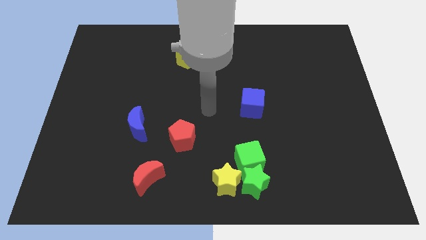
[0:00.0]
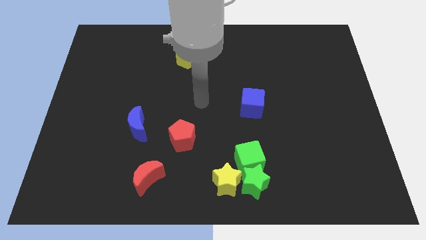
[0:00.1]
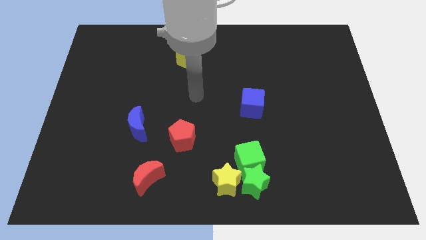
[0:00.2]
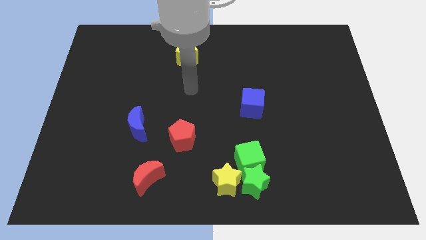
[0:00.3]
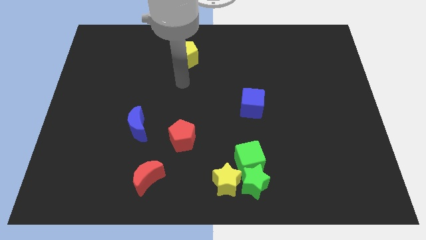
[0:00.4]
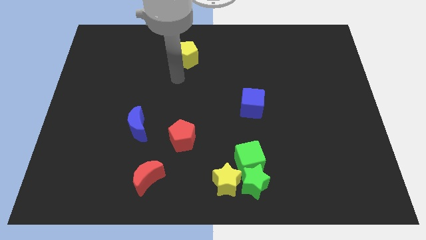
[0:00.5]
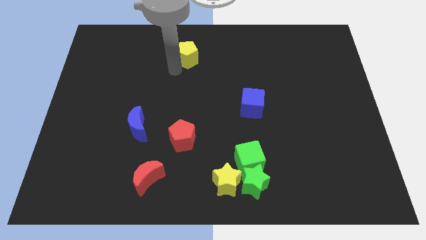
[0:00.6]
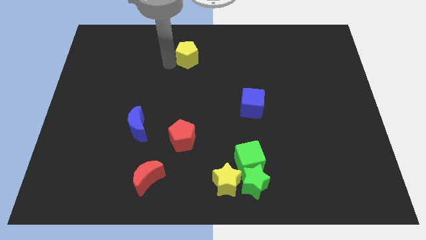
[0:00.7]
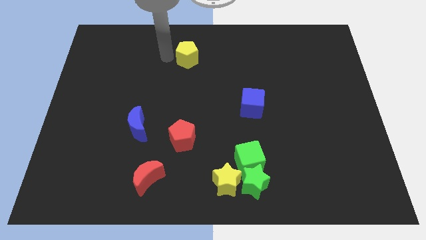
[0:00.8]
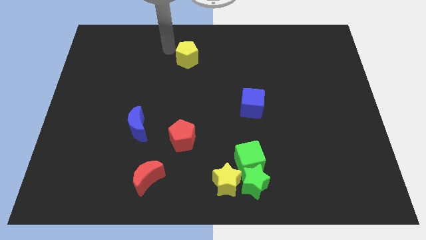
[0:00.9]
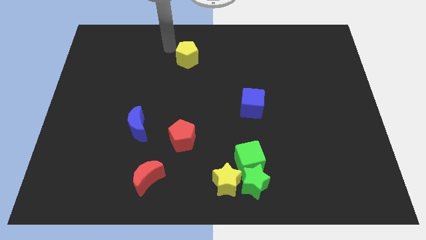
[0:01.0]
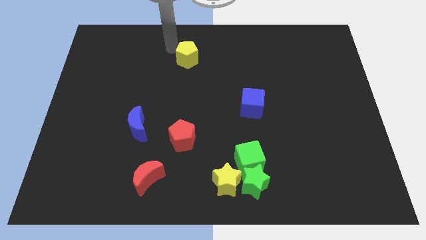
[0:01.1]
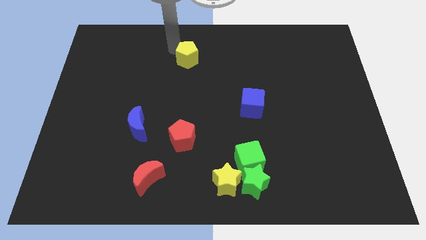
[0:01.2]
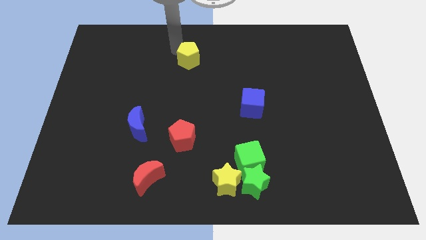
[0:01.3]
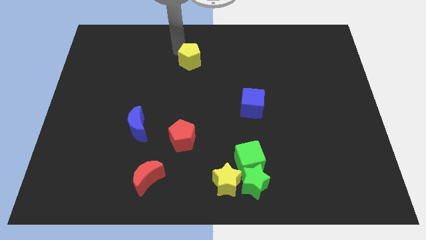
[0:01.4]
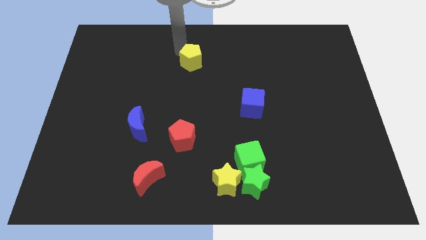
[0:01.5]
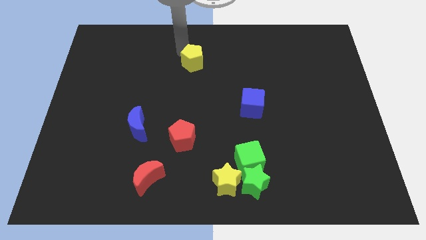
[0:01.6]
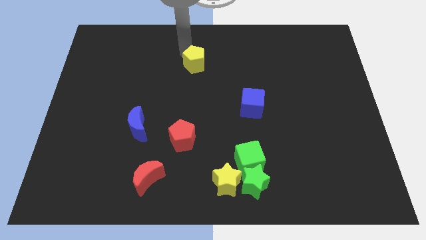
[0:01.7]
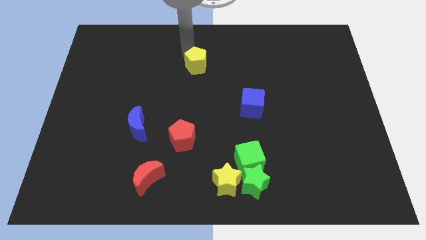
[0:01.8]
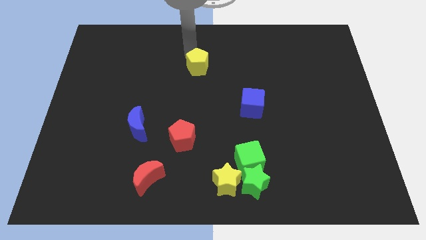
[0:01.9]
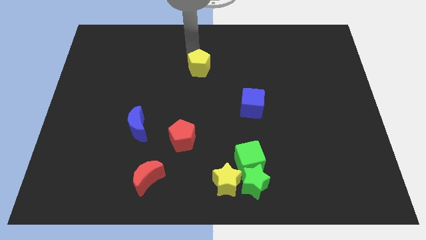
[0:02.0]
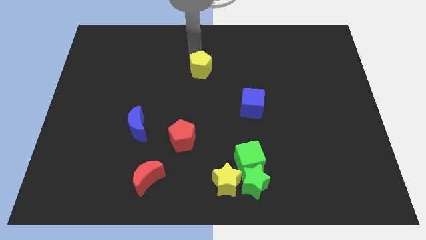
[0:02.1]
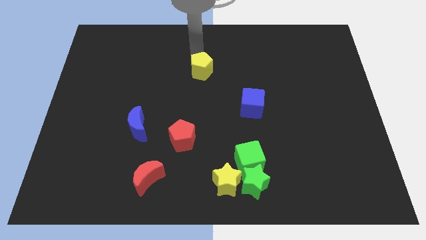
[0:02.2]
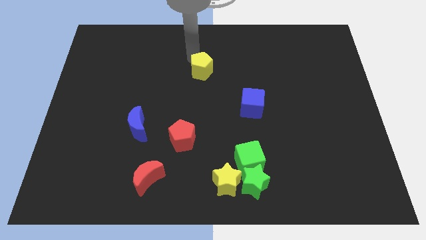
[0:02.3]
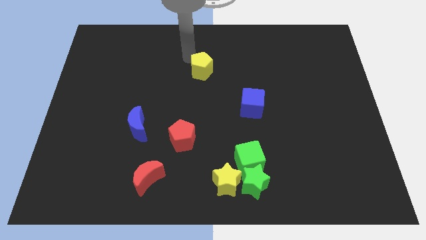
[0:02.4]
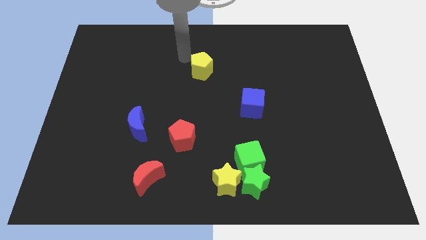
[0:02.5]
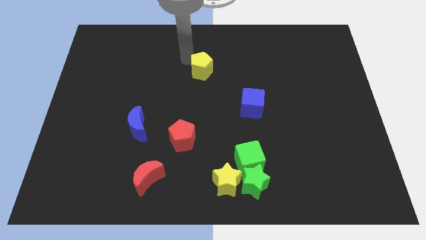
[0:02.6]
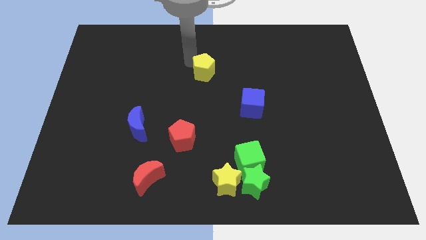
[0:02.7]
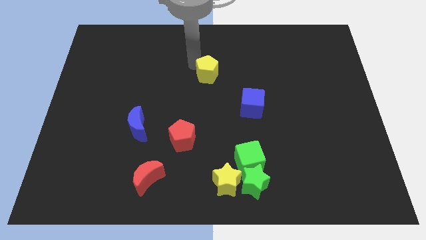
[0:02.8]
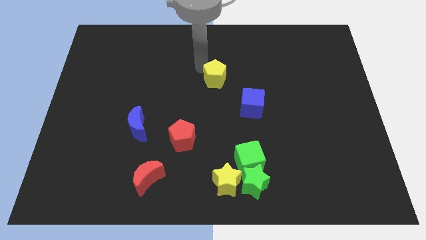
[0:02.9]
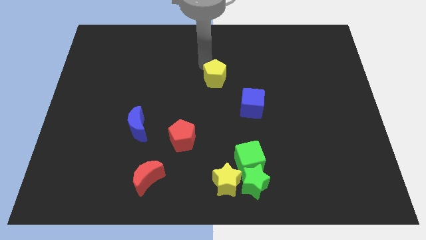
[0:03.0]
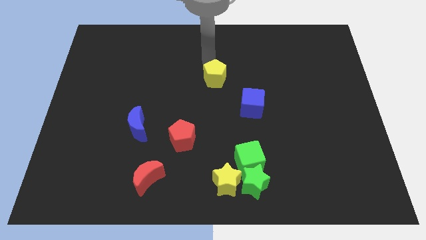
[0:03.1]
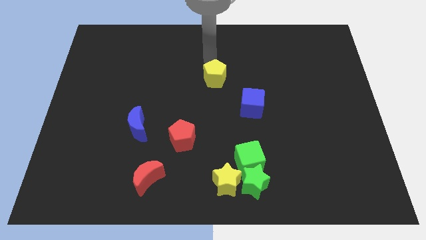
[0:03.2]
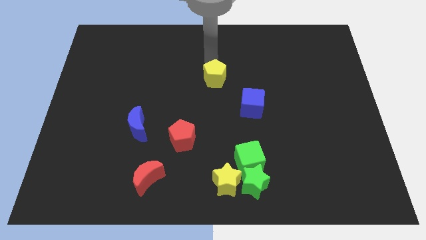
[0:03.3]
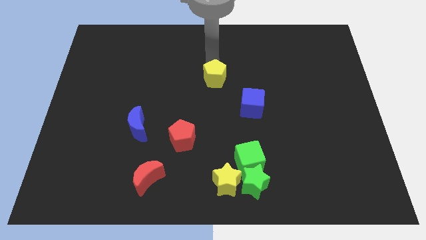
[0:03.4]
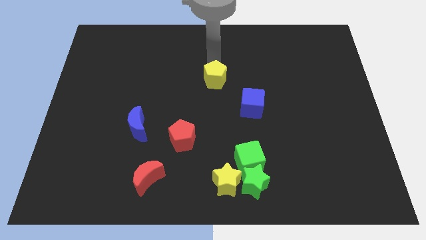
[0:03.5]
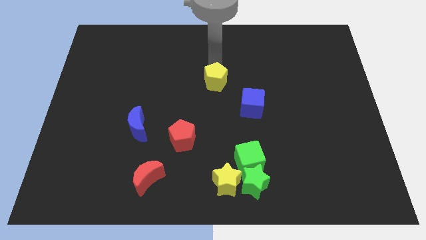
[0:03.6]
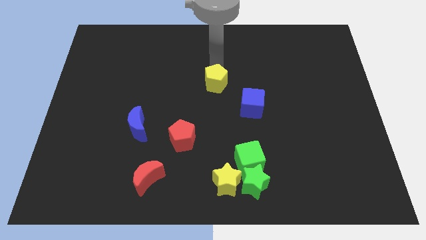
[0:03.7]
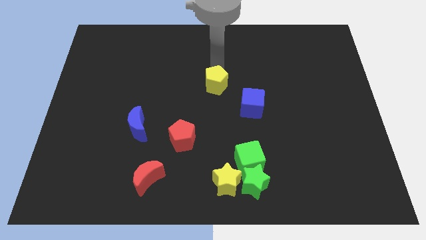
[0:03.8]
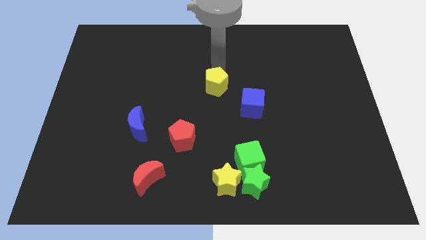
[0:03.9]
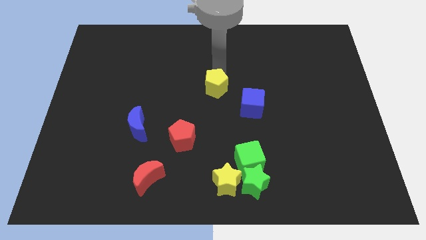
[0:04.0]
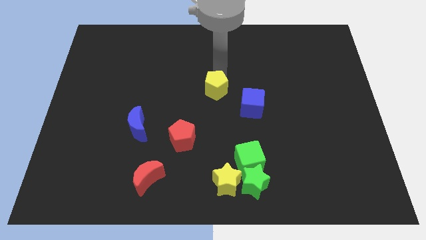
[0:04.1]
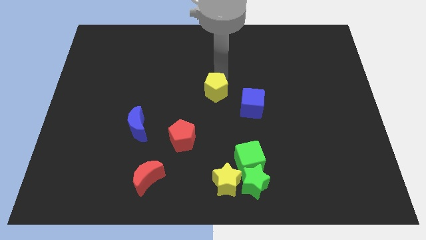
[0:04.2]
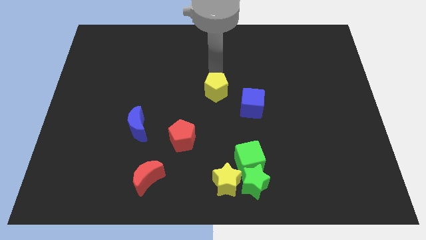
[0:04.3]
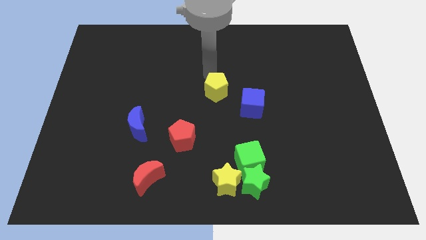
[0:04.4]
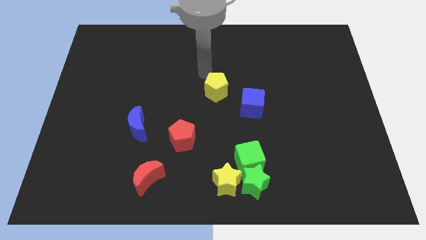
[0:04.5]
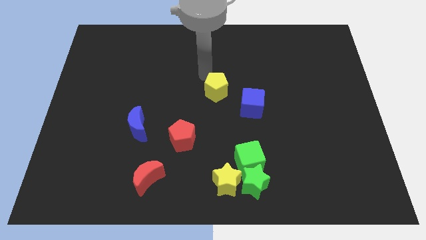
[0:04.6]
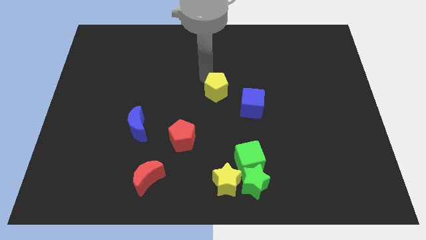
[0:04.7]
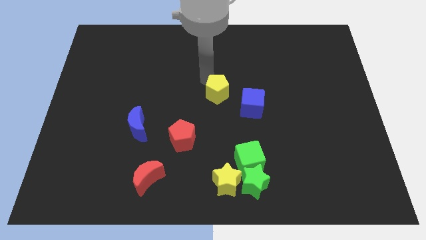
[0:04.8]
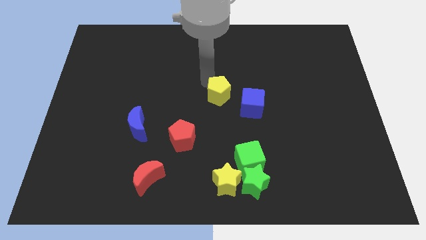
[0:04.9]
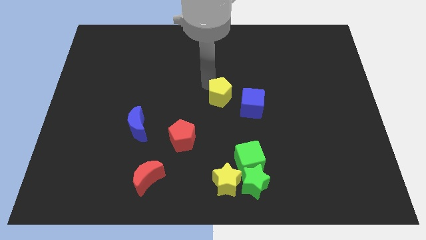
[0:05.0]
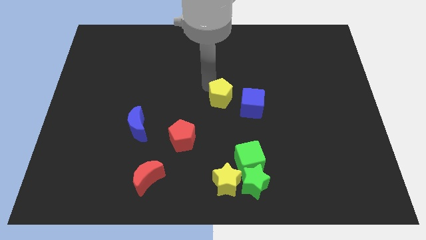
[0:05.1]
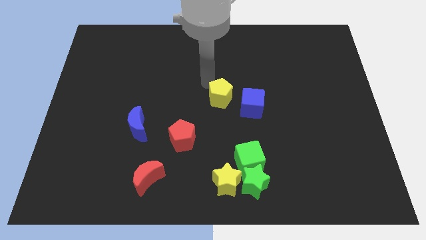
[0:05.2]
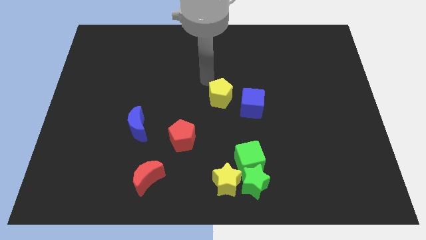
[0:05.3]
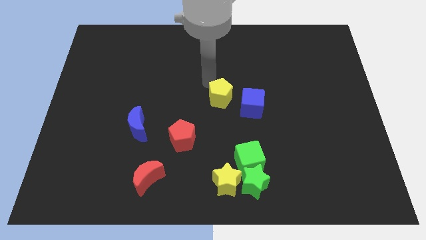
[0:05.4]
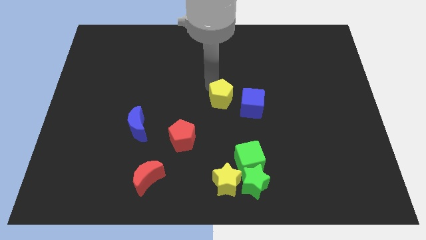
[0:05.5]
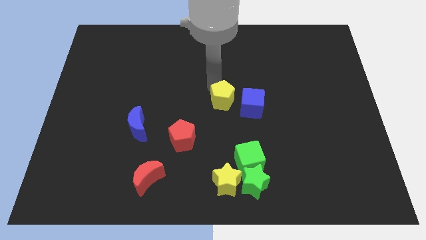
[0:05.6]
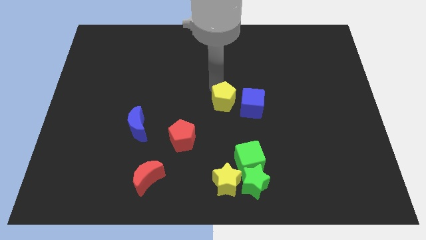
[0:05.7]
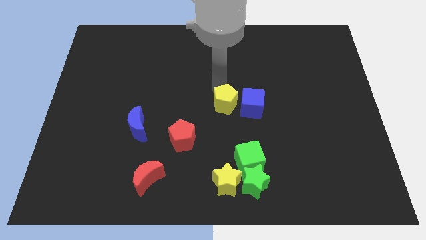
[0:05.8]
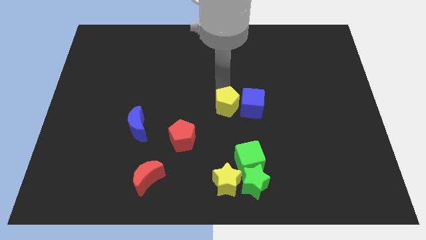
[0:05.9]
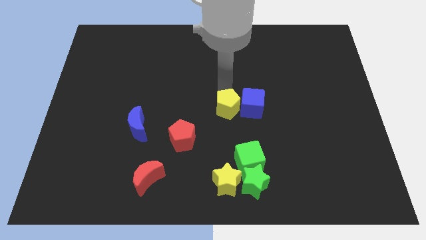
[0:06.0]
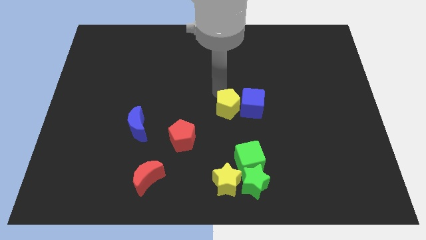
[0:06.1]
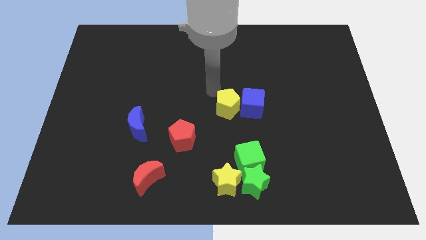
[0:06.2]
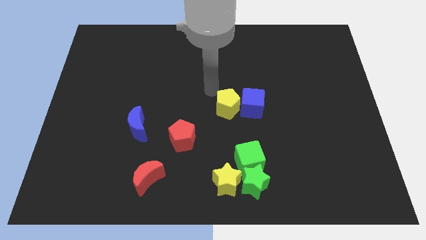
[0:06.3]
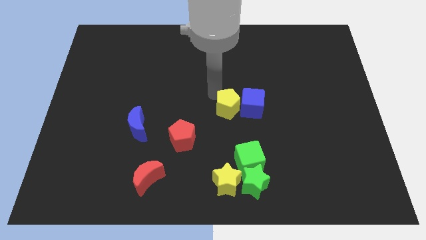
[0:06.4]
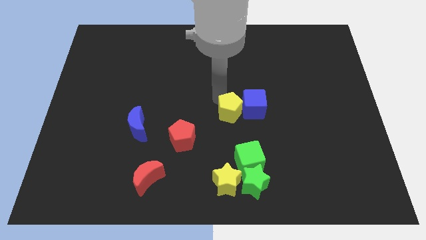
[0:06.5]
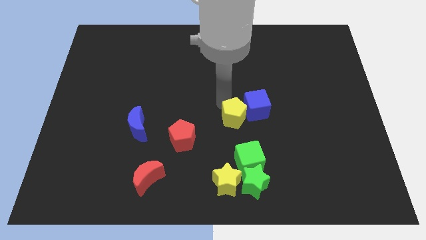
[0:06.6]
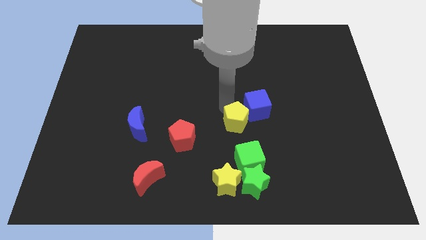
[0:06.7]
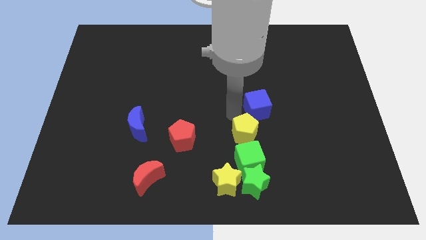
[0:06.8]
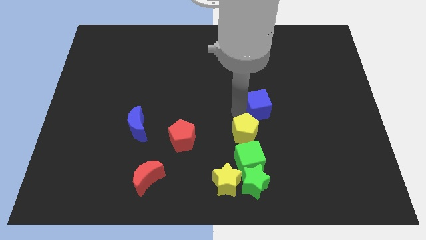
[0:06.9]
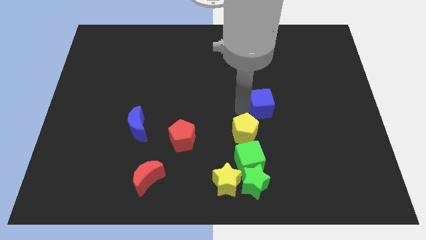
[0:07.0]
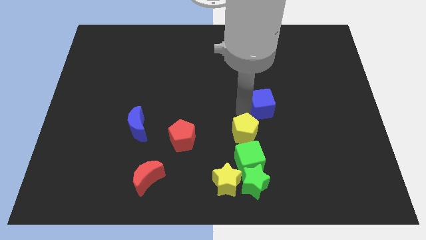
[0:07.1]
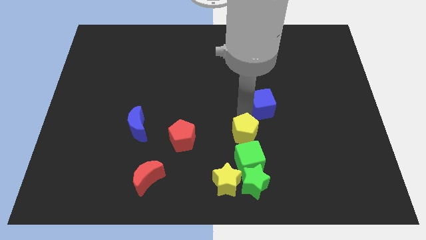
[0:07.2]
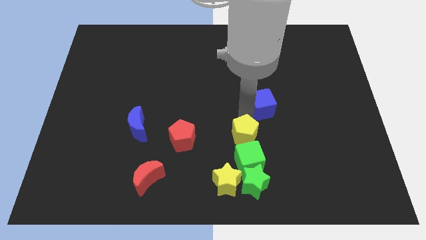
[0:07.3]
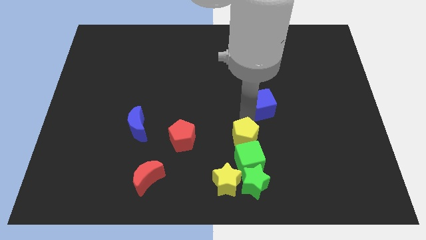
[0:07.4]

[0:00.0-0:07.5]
move the yellow pentagon close to the green cube
